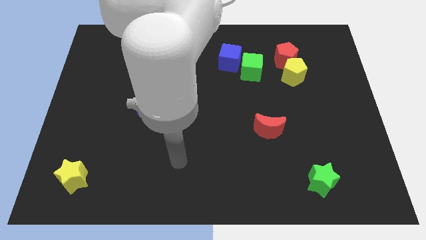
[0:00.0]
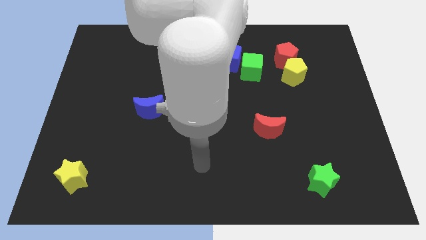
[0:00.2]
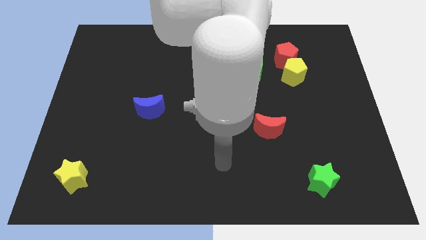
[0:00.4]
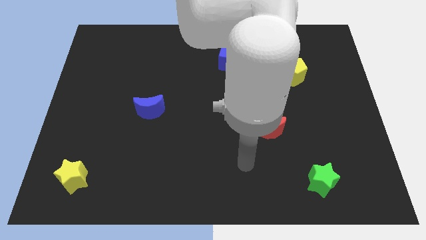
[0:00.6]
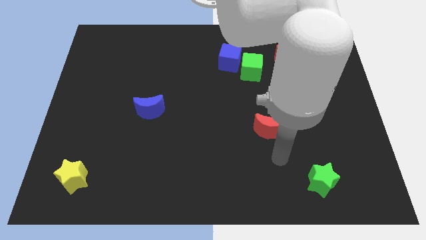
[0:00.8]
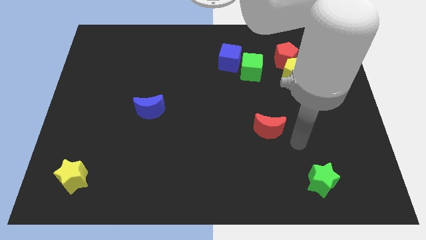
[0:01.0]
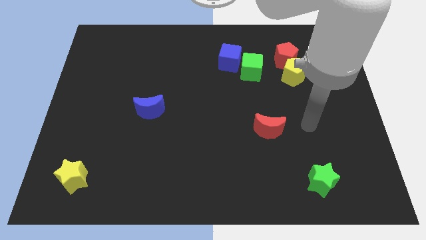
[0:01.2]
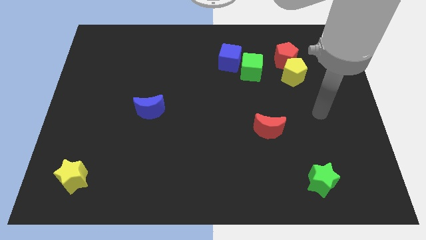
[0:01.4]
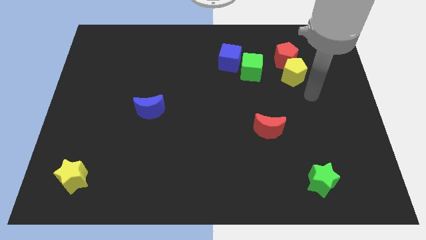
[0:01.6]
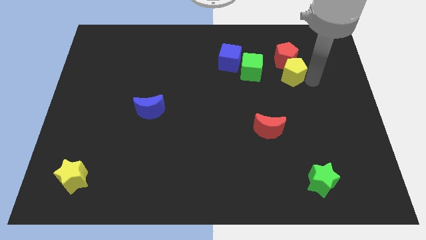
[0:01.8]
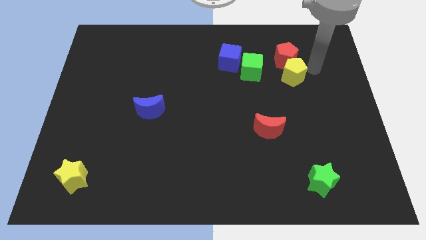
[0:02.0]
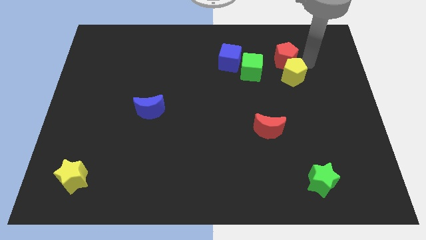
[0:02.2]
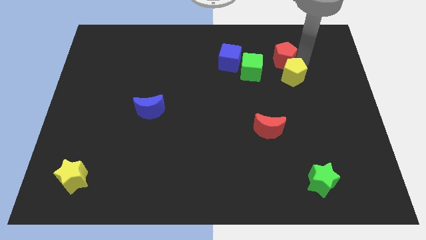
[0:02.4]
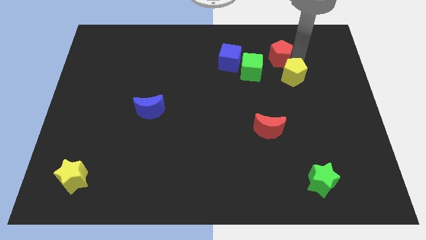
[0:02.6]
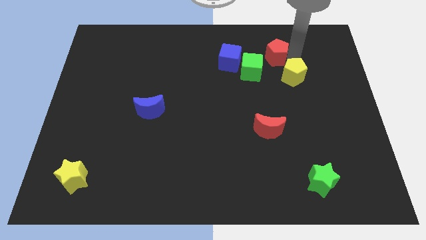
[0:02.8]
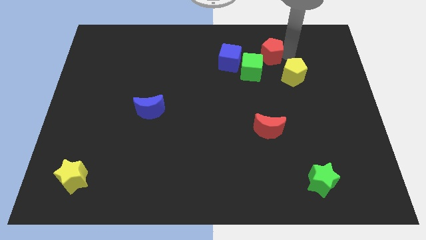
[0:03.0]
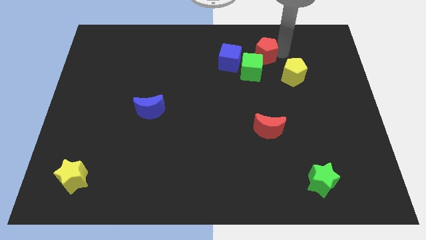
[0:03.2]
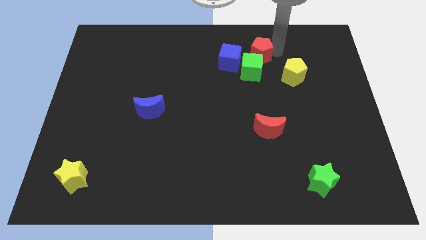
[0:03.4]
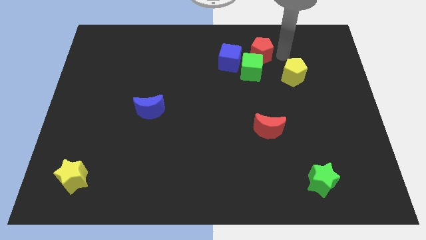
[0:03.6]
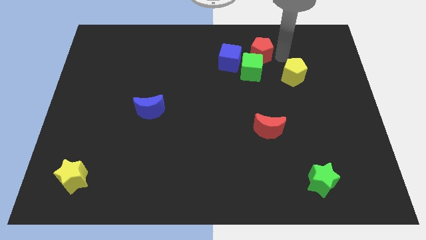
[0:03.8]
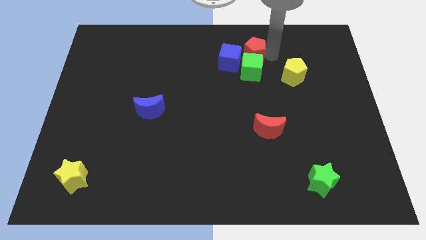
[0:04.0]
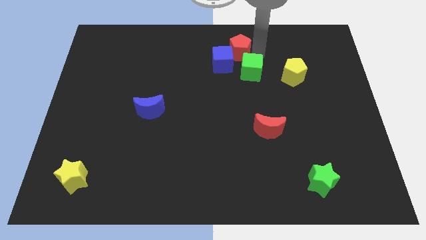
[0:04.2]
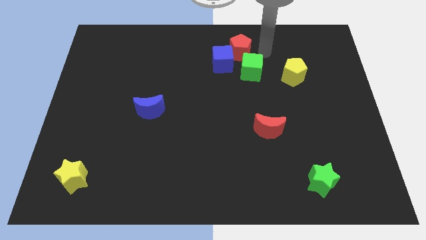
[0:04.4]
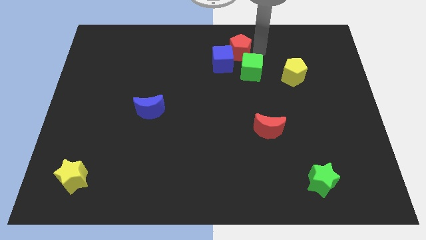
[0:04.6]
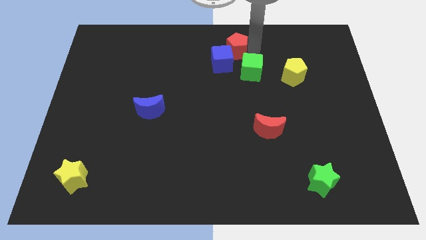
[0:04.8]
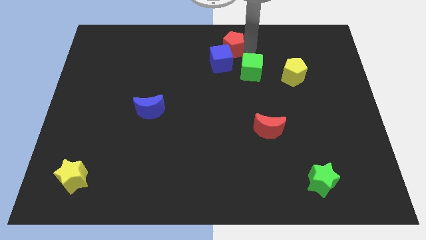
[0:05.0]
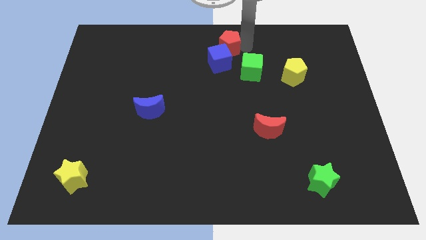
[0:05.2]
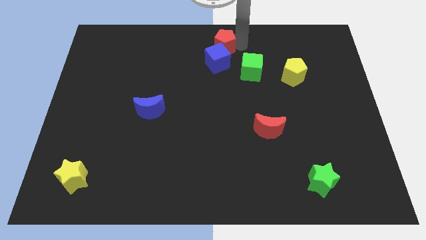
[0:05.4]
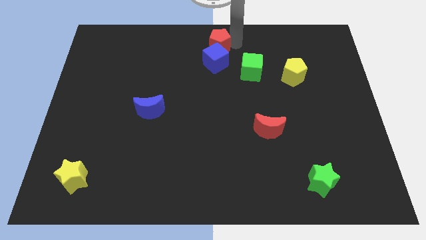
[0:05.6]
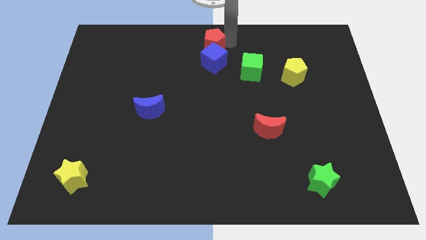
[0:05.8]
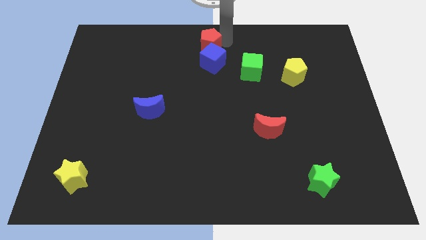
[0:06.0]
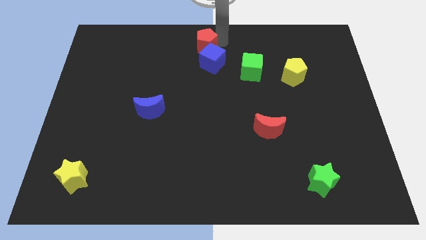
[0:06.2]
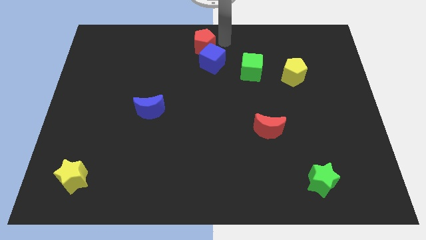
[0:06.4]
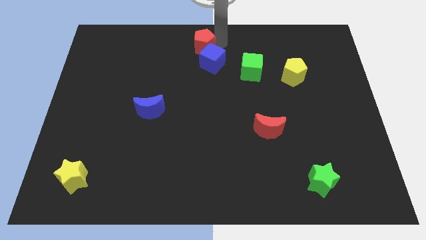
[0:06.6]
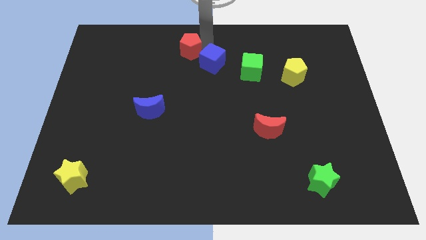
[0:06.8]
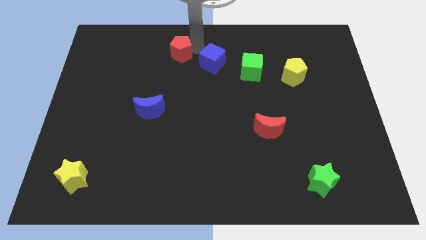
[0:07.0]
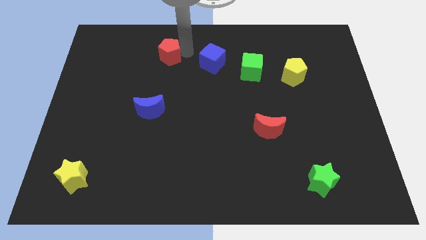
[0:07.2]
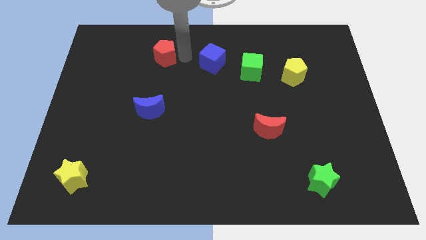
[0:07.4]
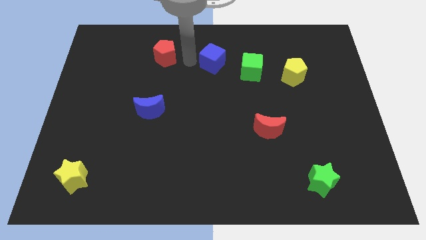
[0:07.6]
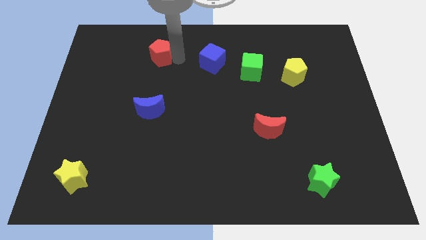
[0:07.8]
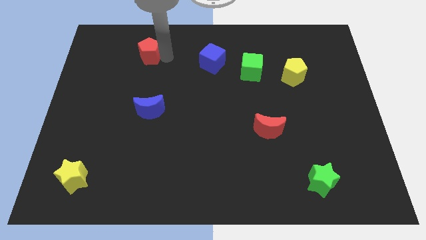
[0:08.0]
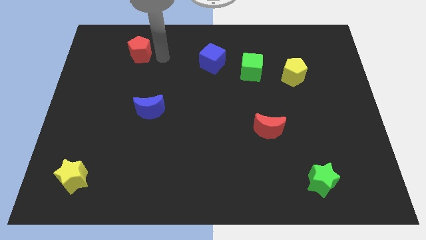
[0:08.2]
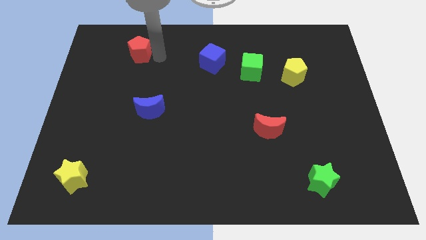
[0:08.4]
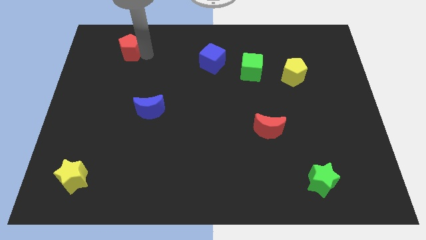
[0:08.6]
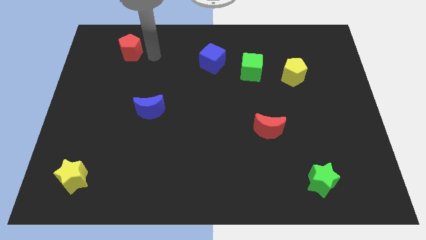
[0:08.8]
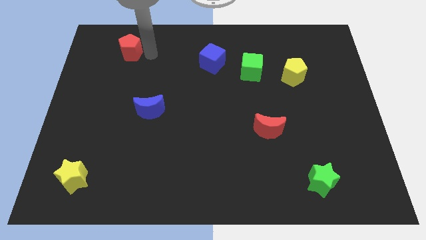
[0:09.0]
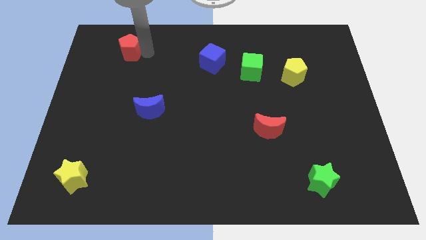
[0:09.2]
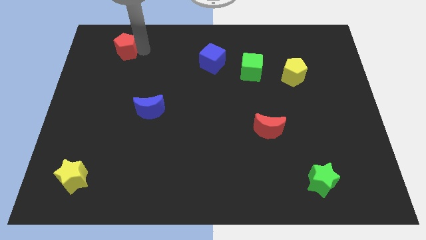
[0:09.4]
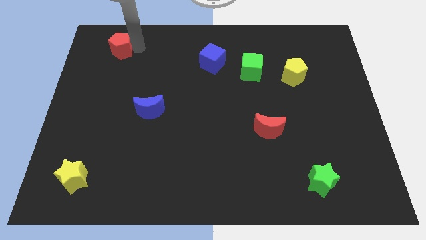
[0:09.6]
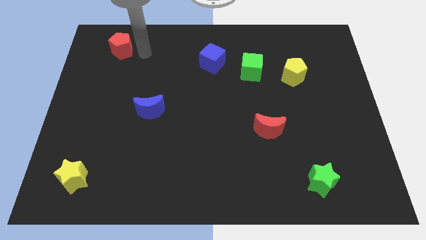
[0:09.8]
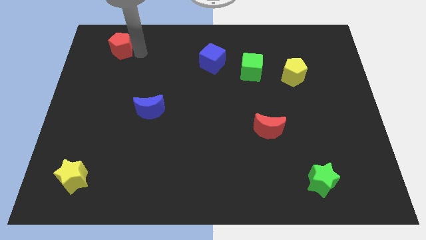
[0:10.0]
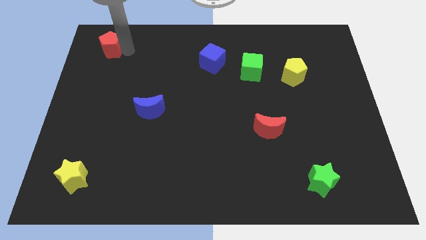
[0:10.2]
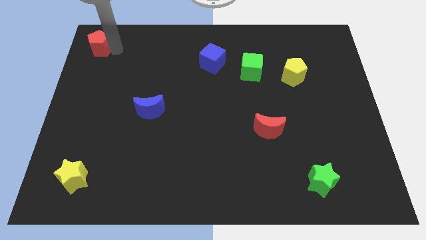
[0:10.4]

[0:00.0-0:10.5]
push the red pentagon to the upper left corner

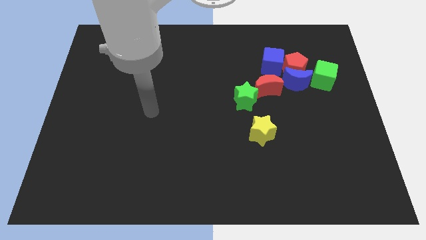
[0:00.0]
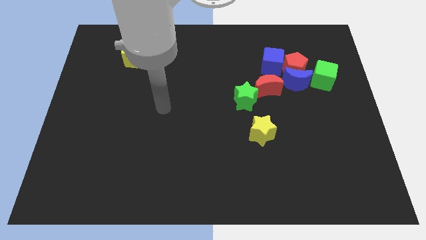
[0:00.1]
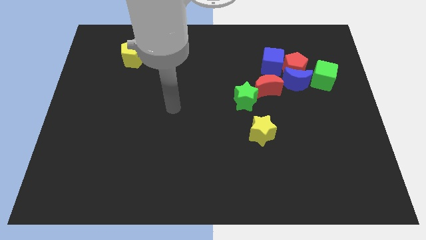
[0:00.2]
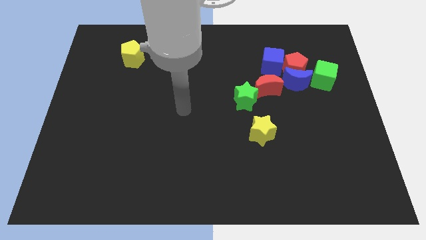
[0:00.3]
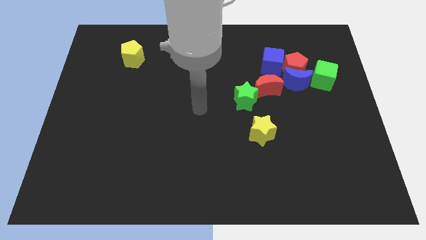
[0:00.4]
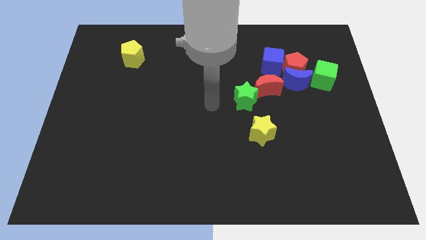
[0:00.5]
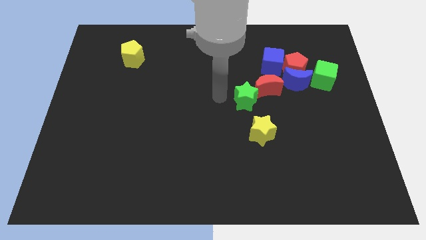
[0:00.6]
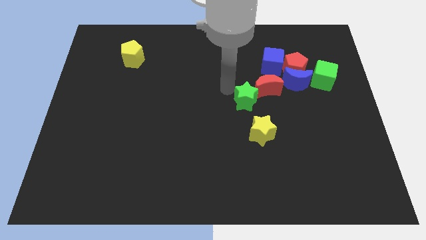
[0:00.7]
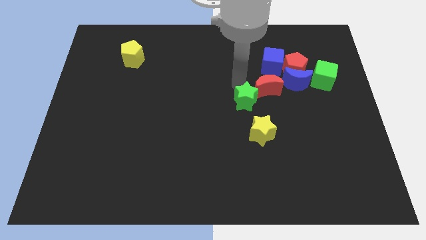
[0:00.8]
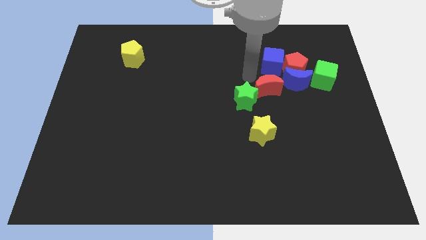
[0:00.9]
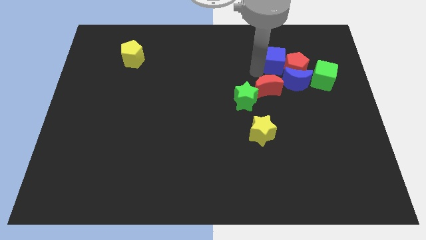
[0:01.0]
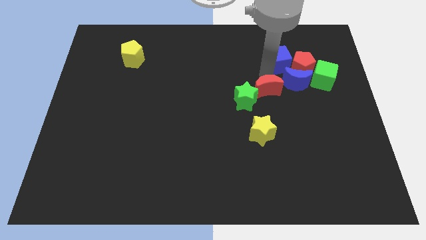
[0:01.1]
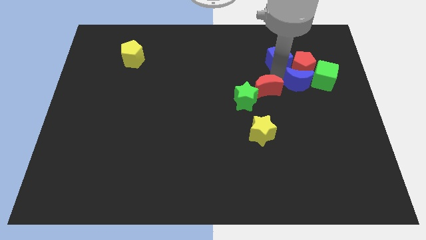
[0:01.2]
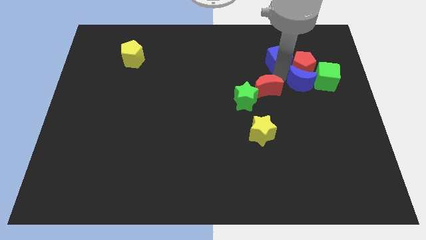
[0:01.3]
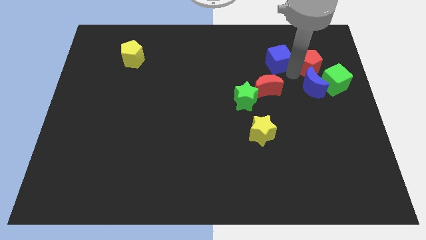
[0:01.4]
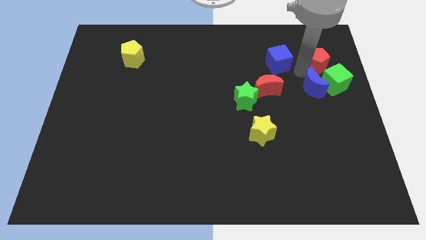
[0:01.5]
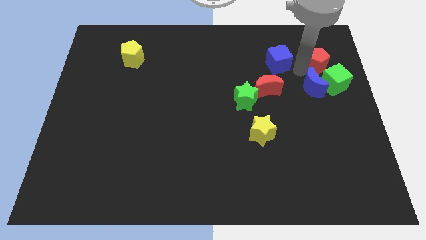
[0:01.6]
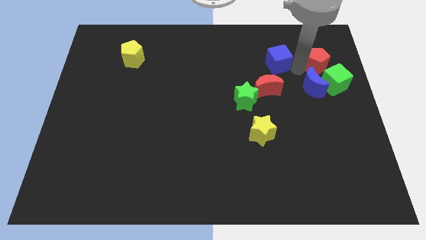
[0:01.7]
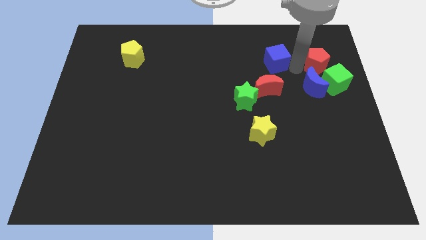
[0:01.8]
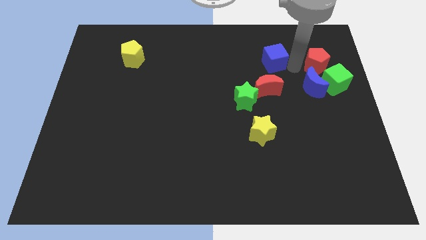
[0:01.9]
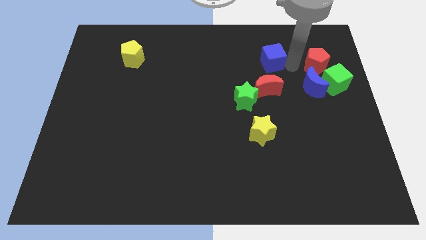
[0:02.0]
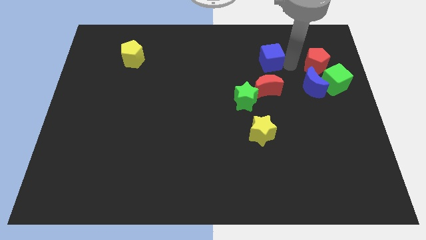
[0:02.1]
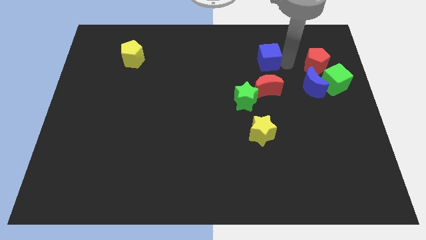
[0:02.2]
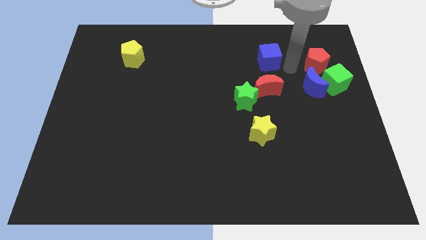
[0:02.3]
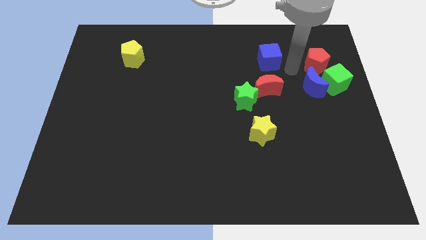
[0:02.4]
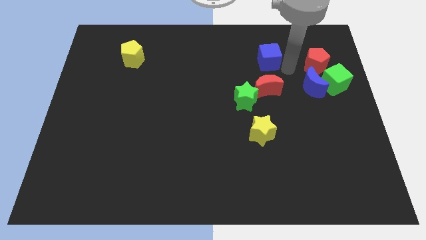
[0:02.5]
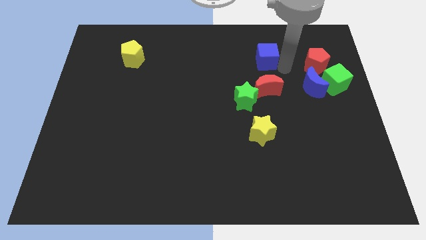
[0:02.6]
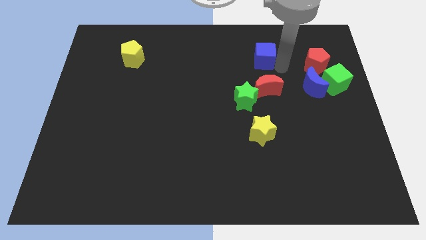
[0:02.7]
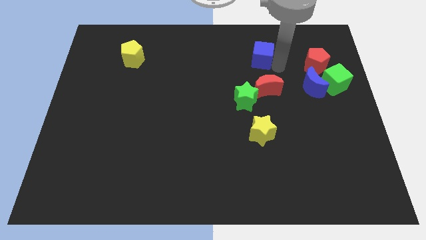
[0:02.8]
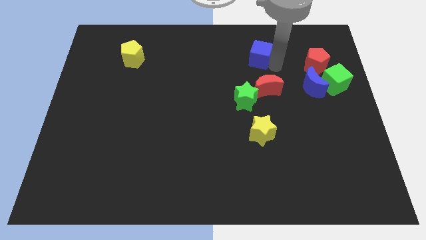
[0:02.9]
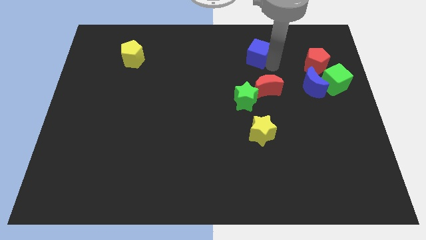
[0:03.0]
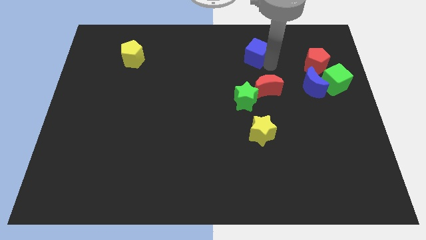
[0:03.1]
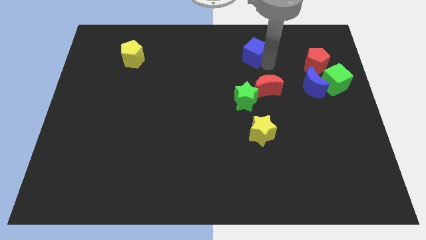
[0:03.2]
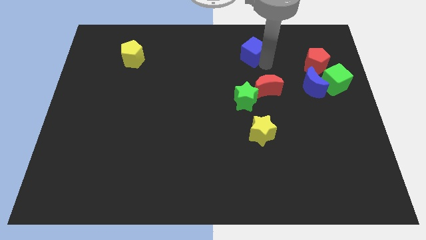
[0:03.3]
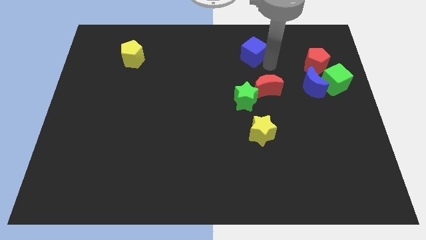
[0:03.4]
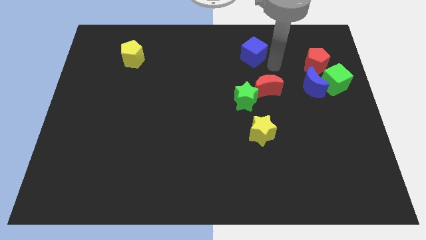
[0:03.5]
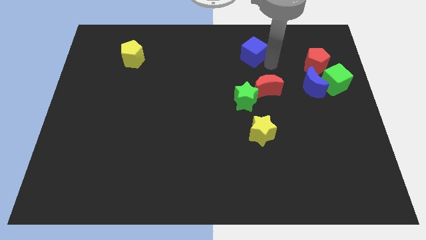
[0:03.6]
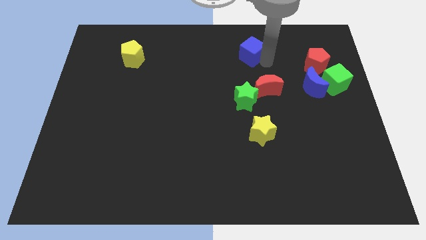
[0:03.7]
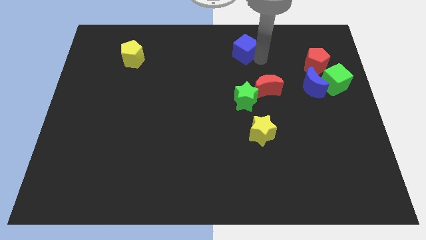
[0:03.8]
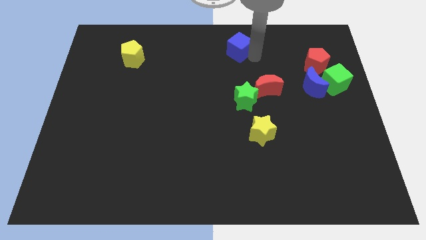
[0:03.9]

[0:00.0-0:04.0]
move the blue cube to the towards your base
